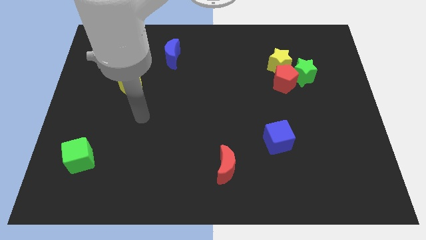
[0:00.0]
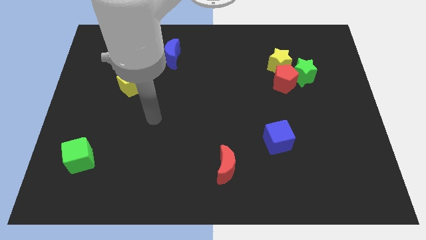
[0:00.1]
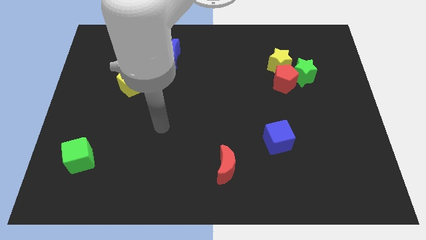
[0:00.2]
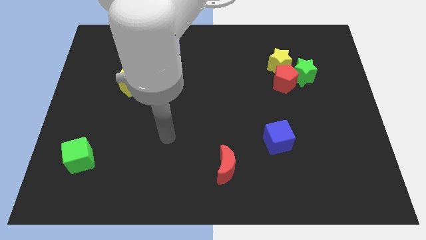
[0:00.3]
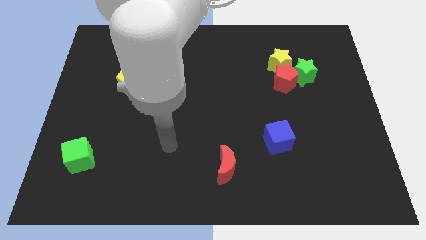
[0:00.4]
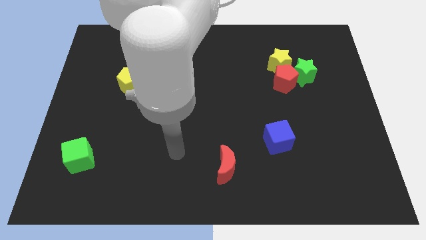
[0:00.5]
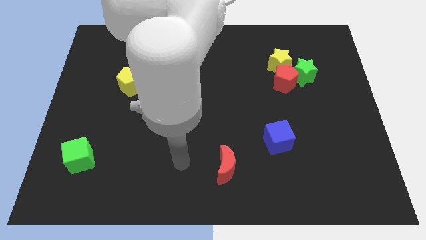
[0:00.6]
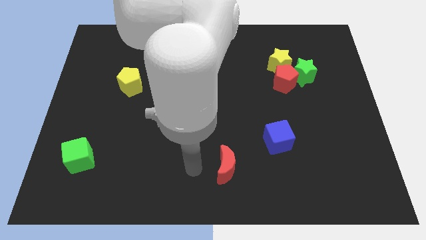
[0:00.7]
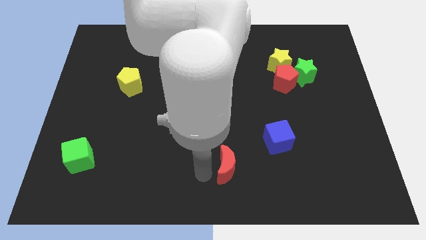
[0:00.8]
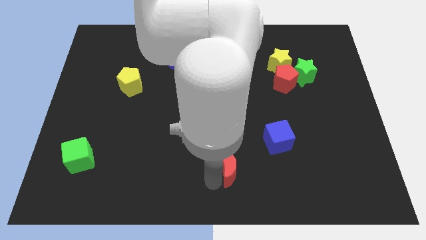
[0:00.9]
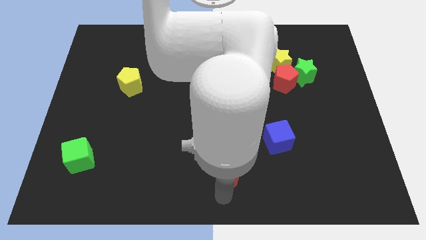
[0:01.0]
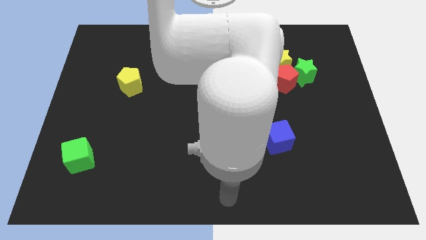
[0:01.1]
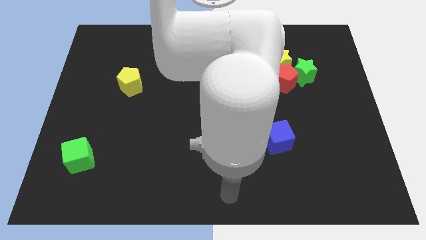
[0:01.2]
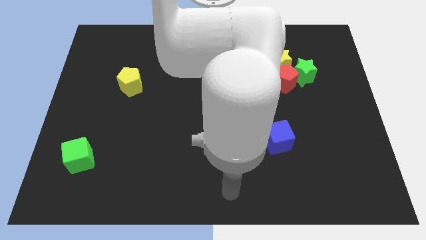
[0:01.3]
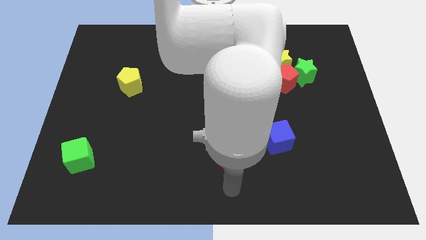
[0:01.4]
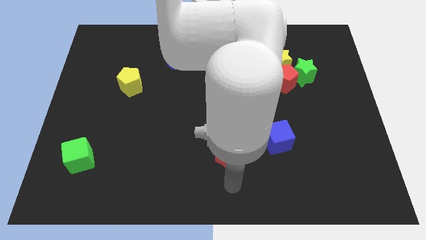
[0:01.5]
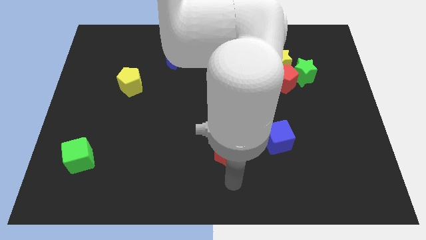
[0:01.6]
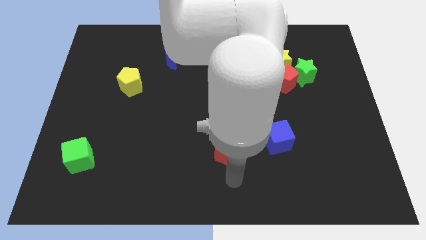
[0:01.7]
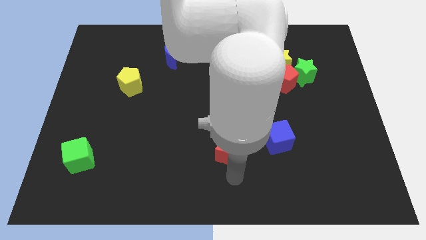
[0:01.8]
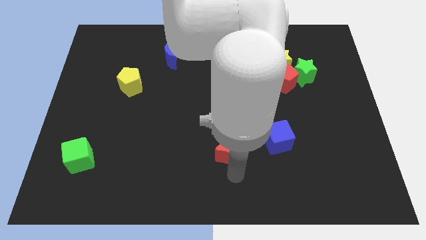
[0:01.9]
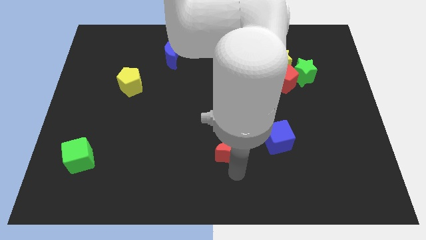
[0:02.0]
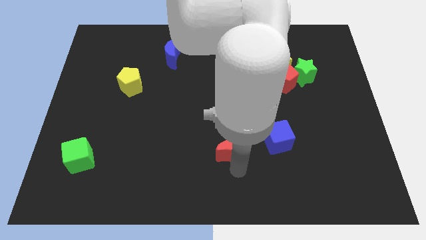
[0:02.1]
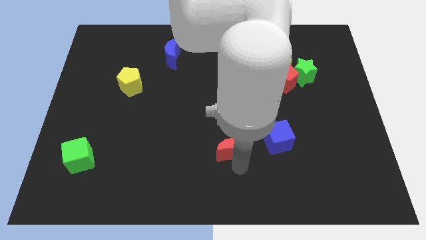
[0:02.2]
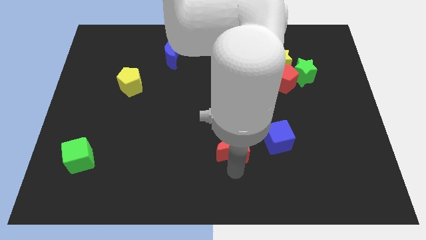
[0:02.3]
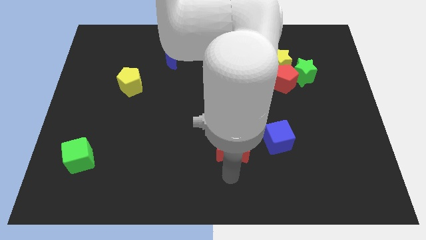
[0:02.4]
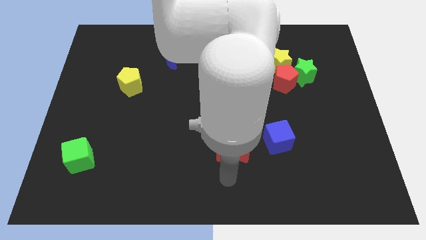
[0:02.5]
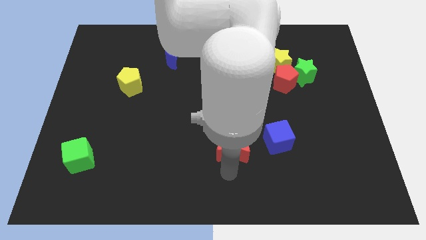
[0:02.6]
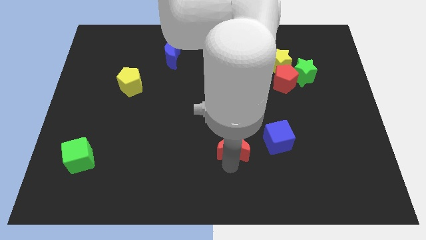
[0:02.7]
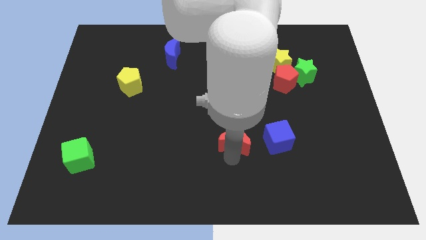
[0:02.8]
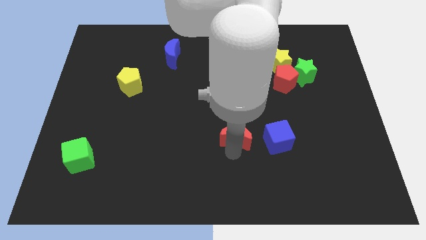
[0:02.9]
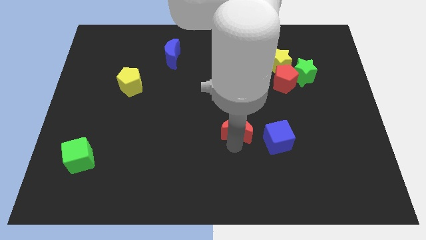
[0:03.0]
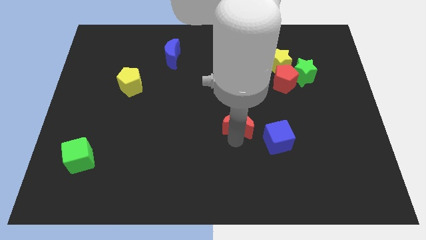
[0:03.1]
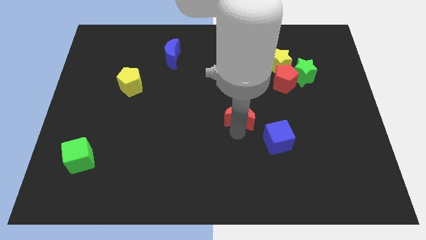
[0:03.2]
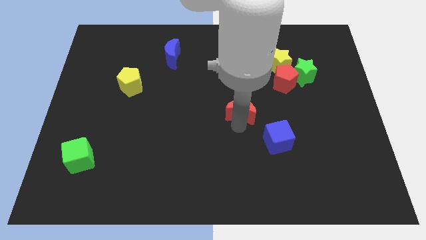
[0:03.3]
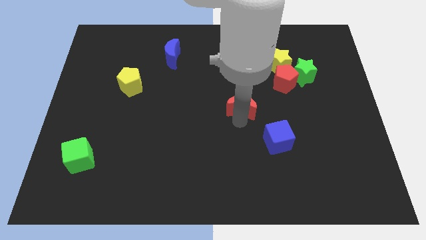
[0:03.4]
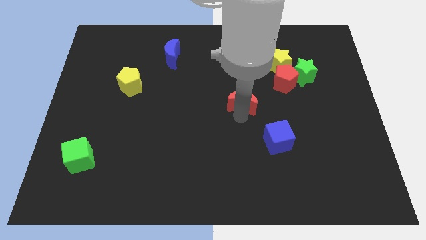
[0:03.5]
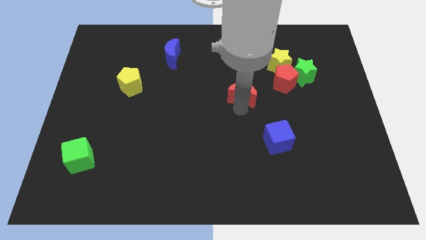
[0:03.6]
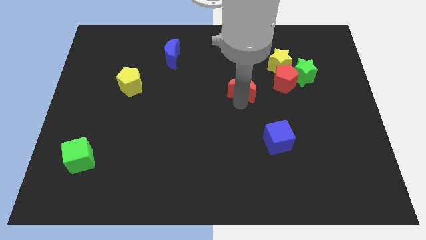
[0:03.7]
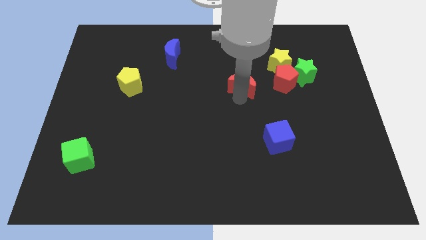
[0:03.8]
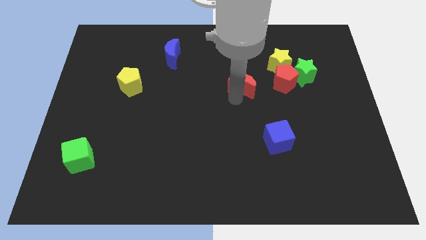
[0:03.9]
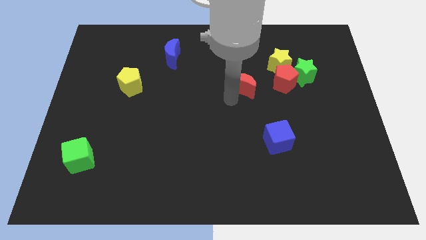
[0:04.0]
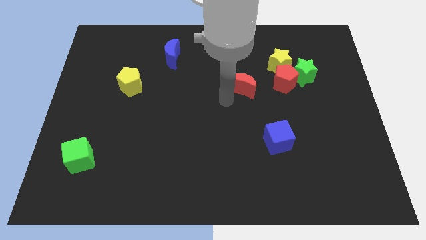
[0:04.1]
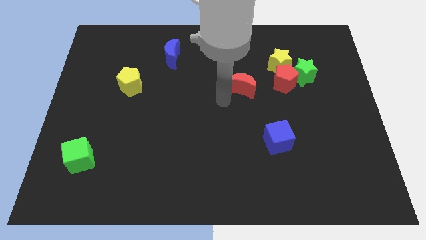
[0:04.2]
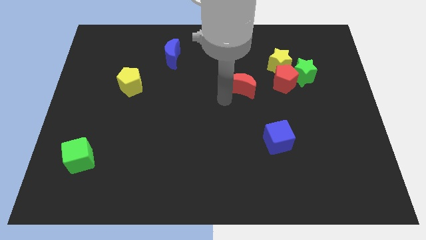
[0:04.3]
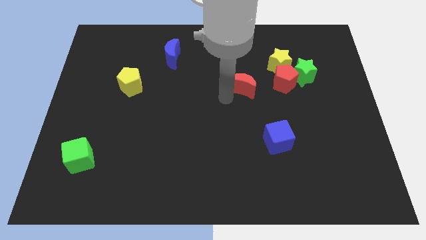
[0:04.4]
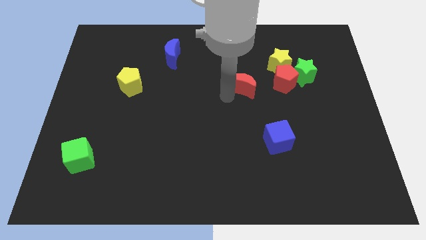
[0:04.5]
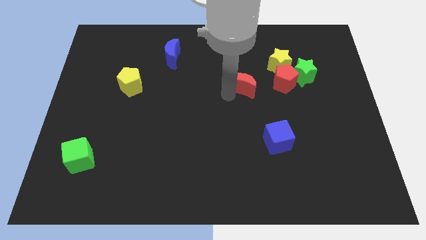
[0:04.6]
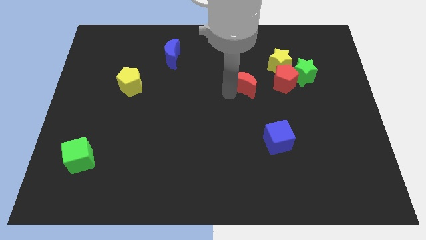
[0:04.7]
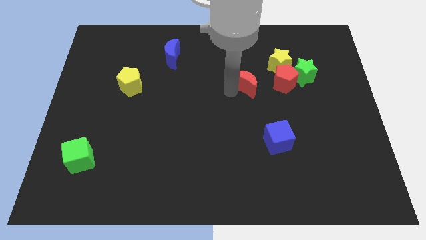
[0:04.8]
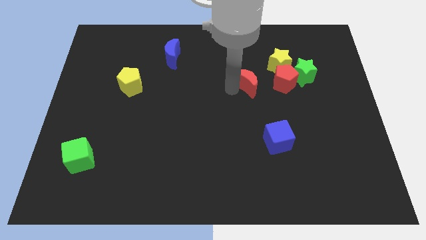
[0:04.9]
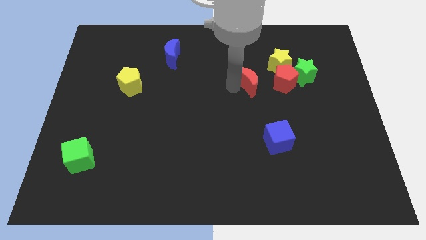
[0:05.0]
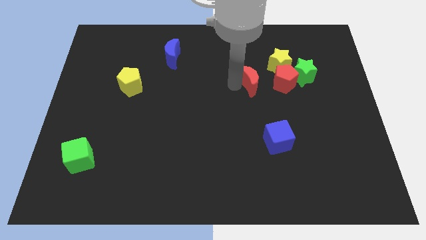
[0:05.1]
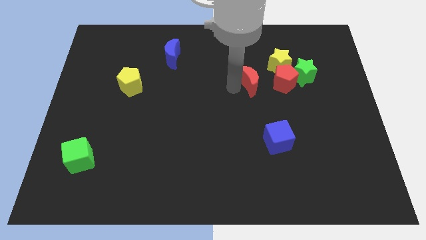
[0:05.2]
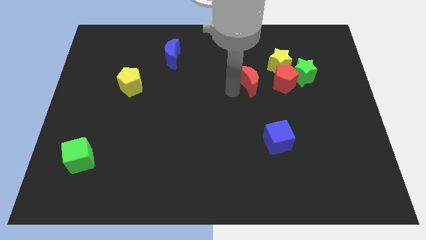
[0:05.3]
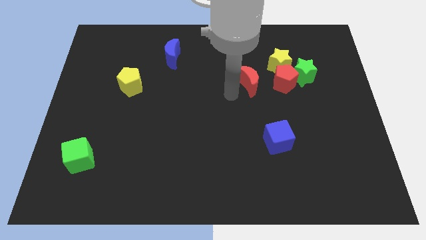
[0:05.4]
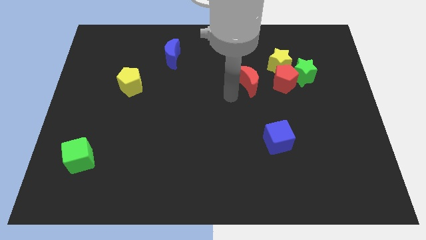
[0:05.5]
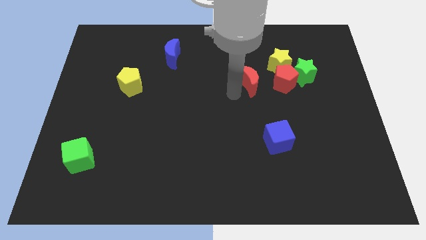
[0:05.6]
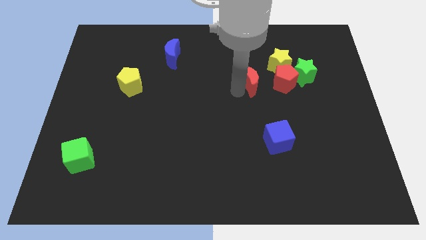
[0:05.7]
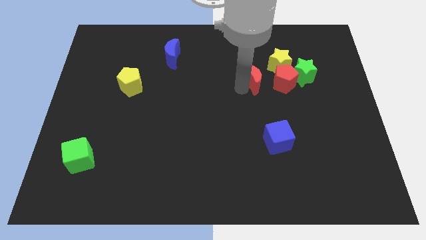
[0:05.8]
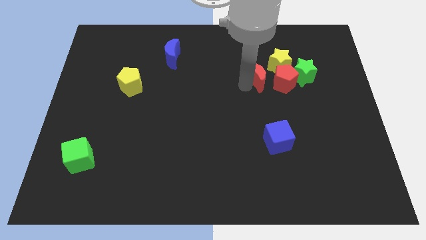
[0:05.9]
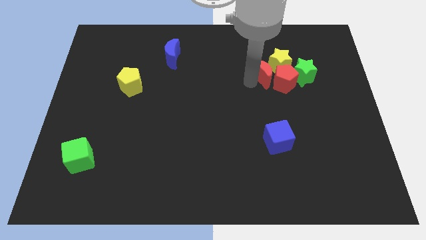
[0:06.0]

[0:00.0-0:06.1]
push the red moon towards the yellow star

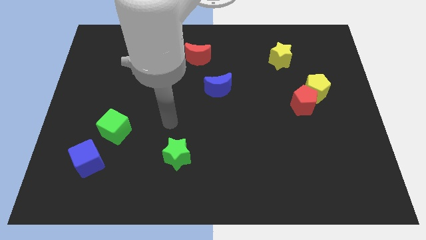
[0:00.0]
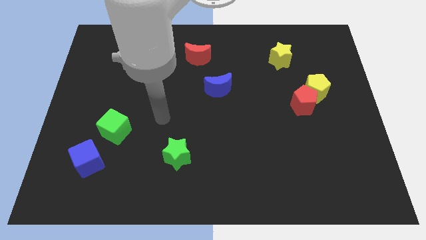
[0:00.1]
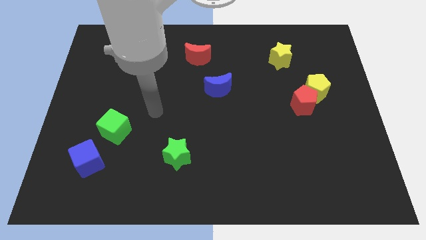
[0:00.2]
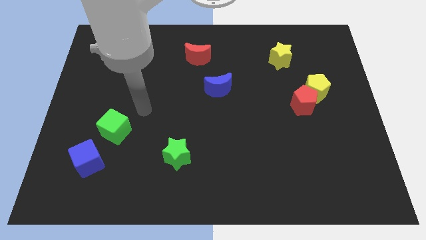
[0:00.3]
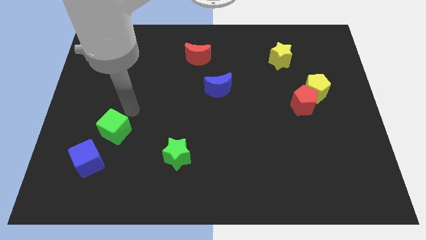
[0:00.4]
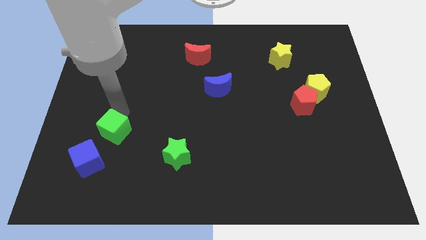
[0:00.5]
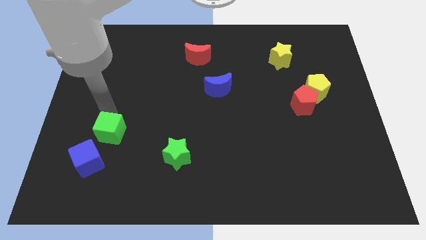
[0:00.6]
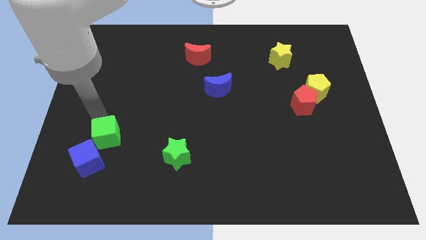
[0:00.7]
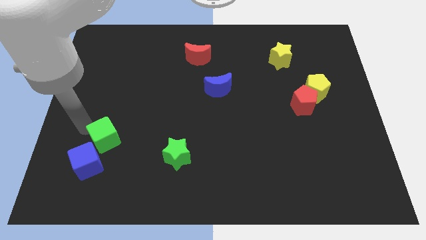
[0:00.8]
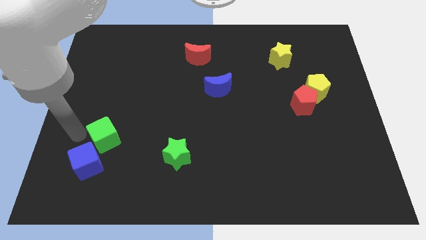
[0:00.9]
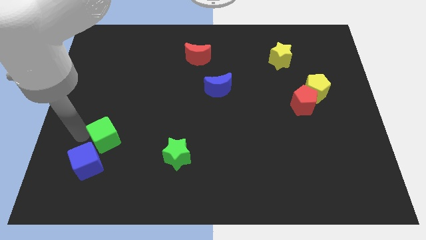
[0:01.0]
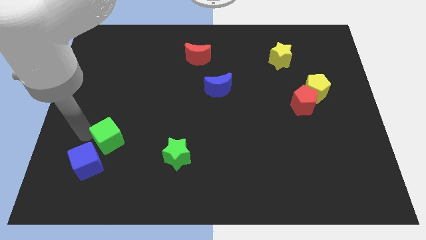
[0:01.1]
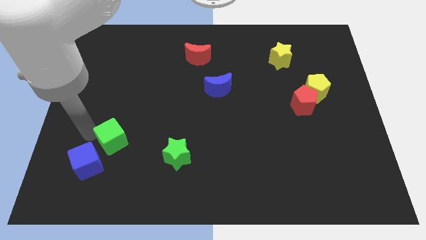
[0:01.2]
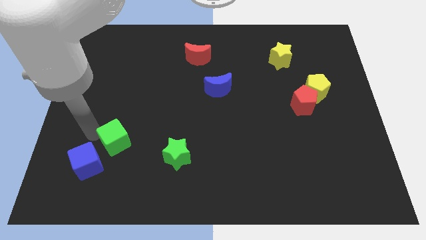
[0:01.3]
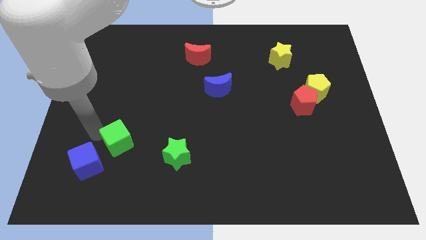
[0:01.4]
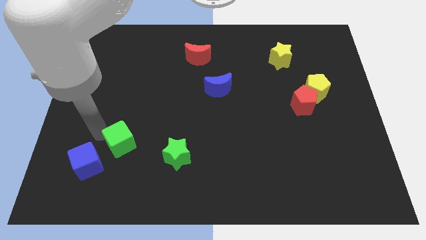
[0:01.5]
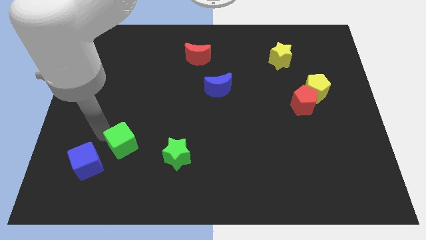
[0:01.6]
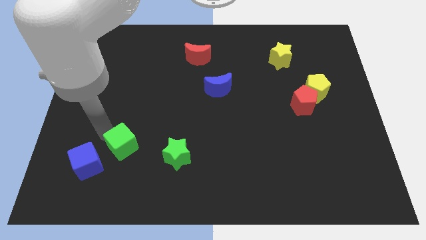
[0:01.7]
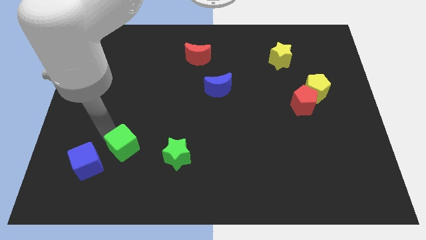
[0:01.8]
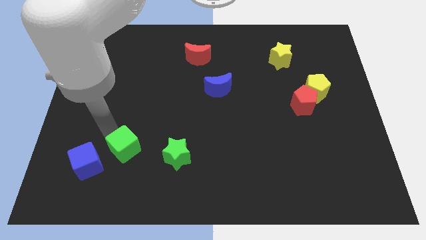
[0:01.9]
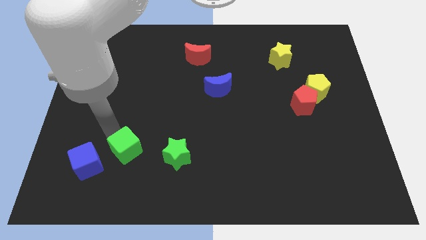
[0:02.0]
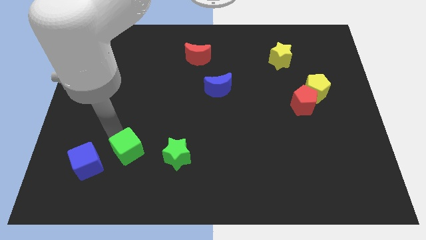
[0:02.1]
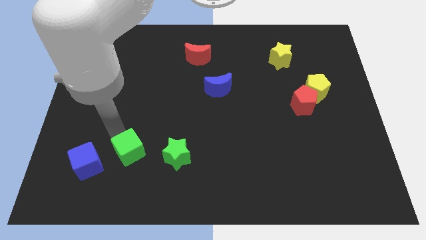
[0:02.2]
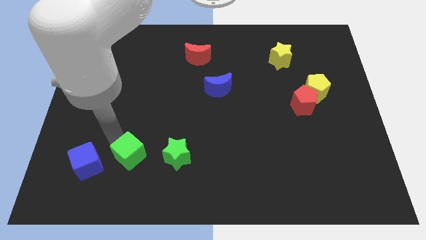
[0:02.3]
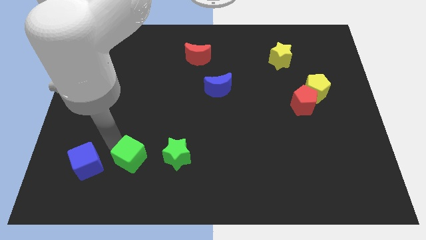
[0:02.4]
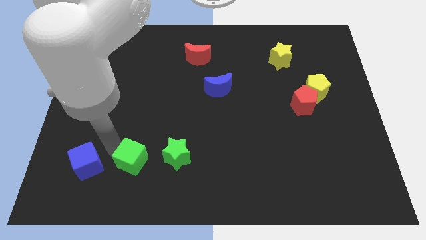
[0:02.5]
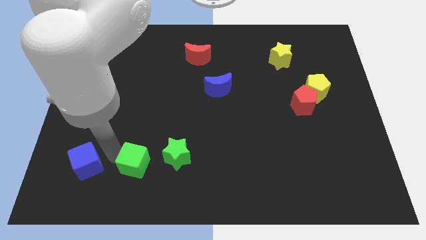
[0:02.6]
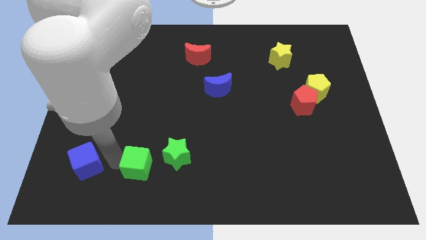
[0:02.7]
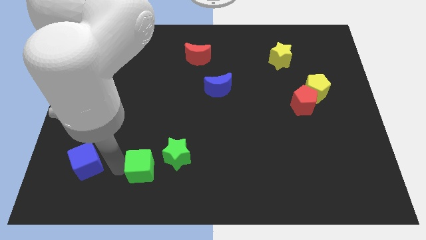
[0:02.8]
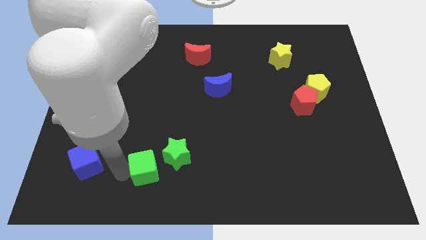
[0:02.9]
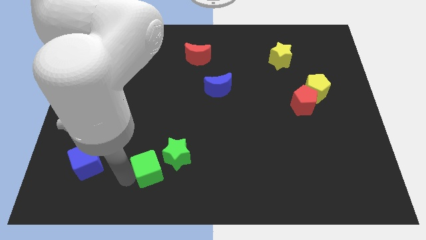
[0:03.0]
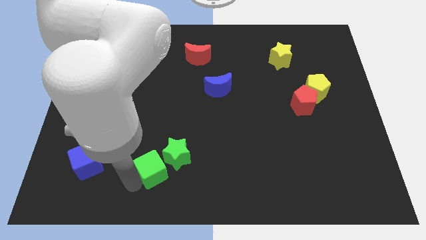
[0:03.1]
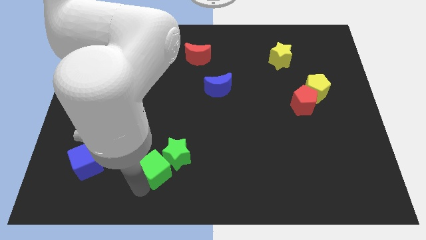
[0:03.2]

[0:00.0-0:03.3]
move the green cube close to the green star
